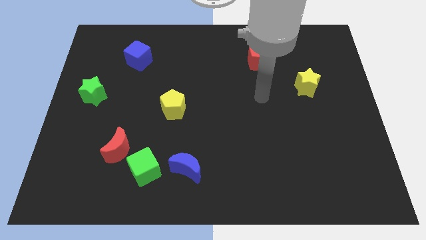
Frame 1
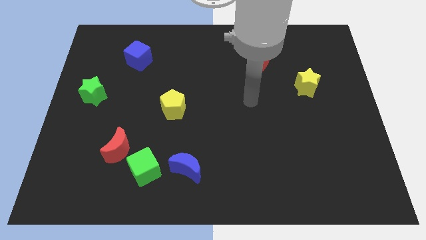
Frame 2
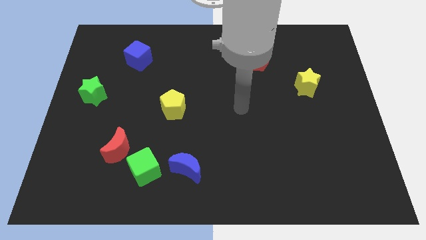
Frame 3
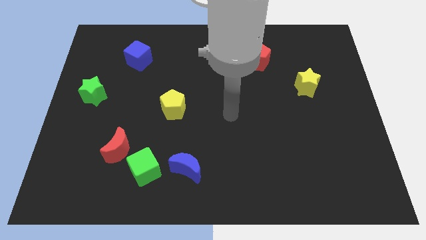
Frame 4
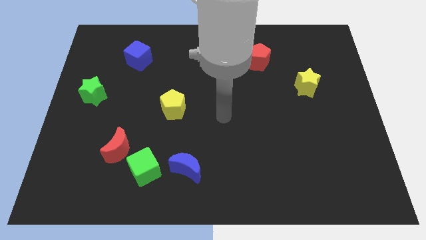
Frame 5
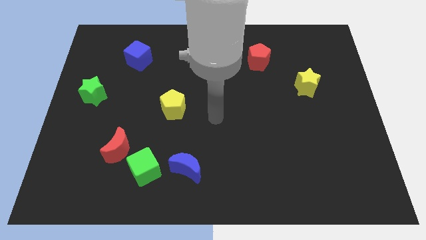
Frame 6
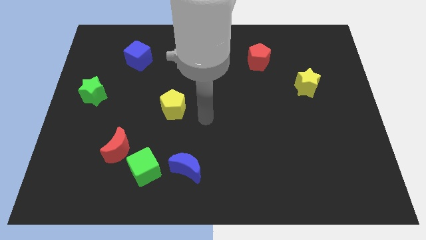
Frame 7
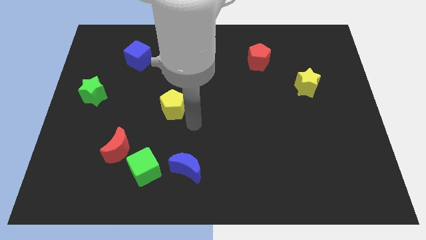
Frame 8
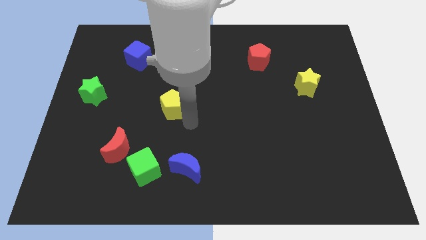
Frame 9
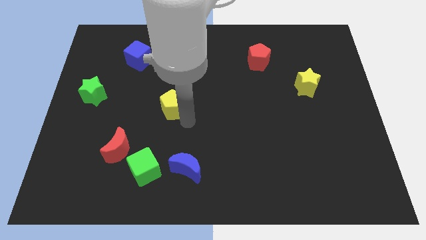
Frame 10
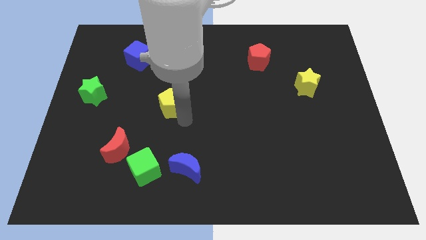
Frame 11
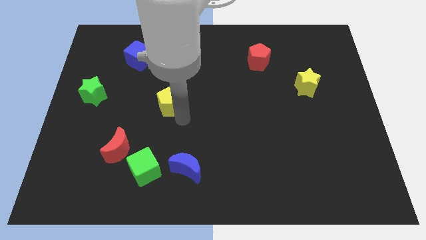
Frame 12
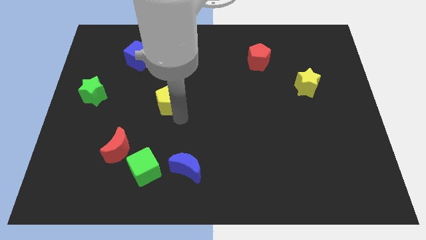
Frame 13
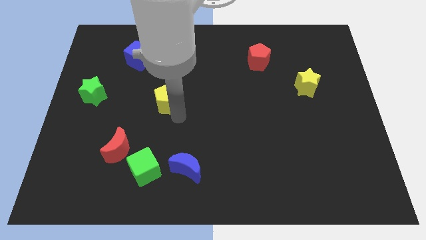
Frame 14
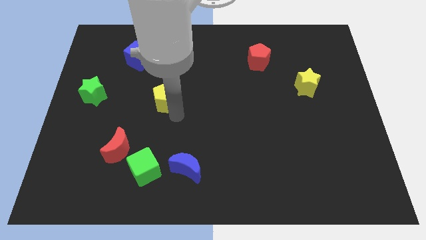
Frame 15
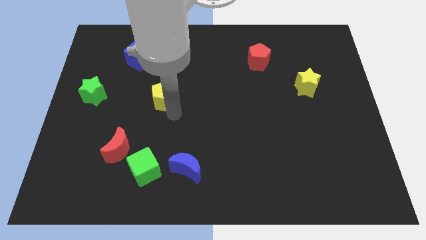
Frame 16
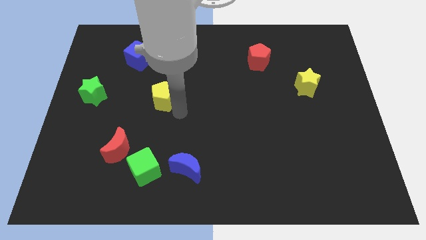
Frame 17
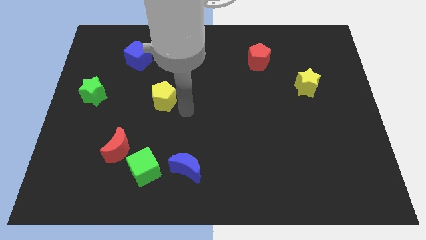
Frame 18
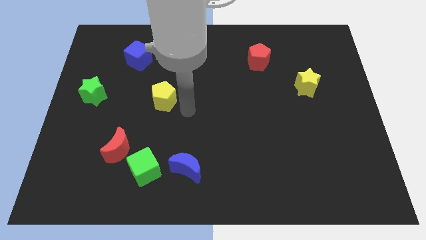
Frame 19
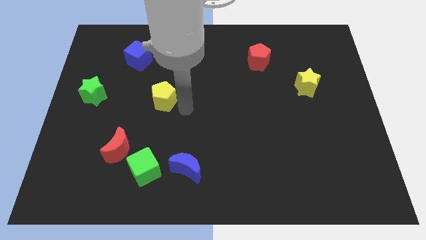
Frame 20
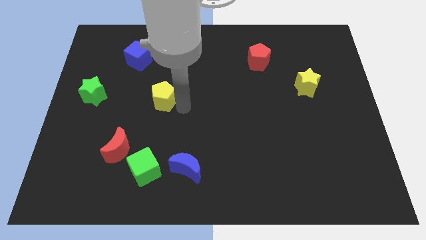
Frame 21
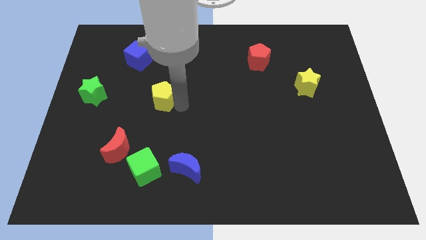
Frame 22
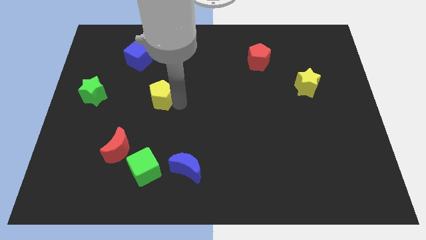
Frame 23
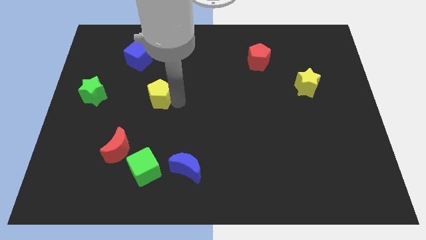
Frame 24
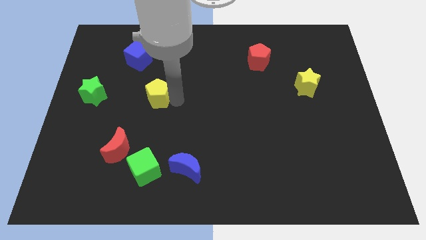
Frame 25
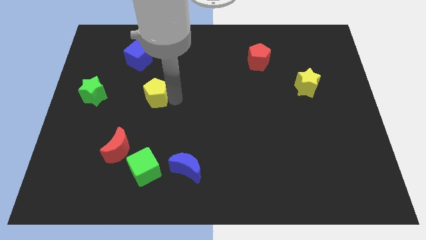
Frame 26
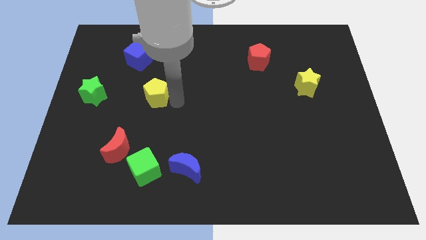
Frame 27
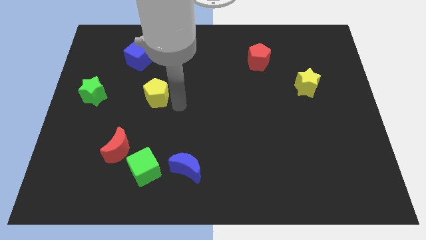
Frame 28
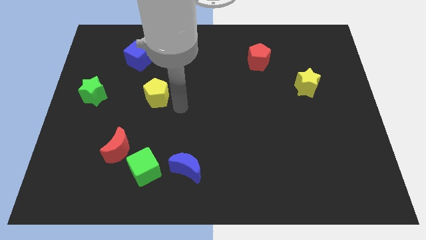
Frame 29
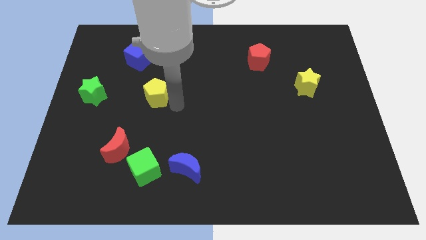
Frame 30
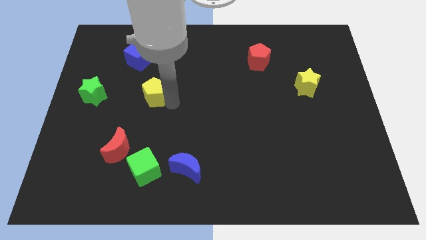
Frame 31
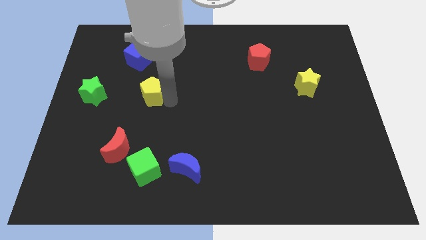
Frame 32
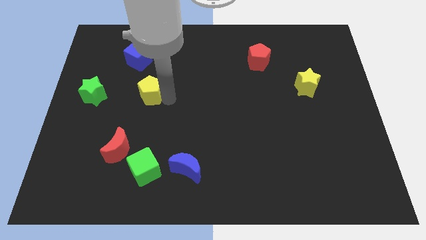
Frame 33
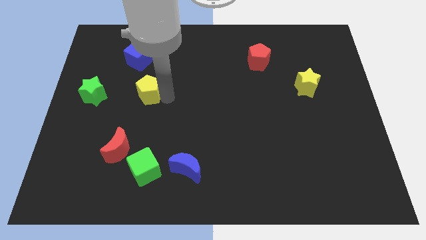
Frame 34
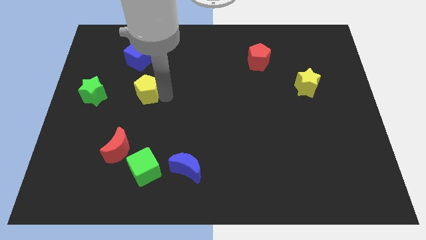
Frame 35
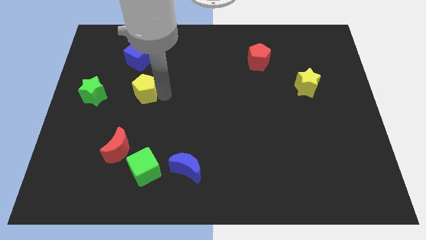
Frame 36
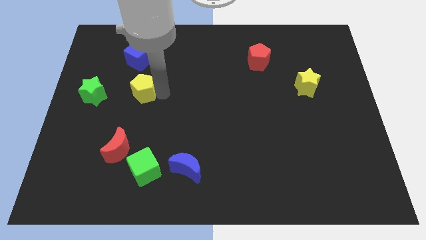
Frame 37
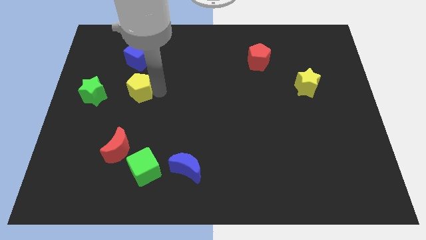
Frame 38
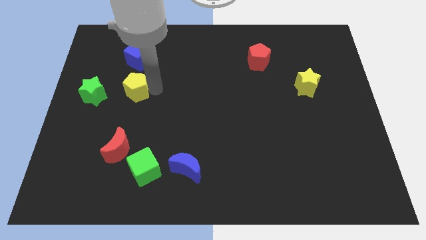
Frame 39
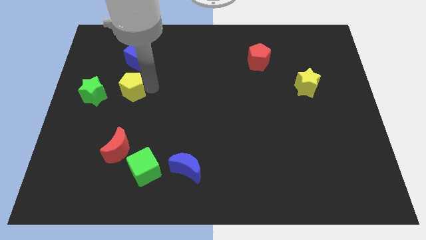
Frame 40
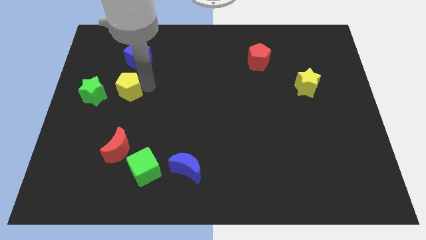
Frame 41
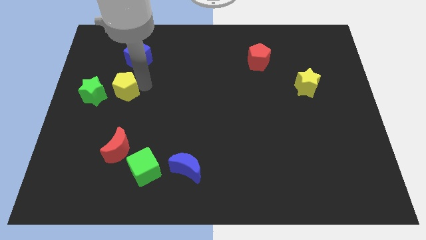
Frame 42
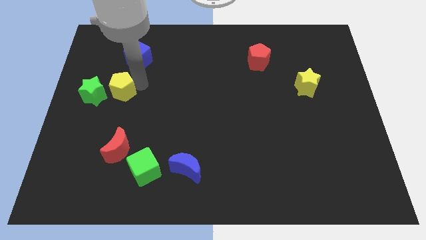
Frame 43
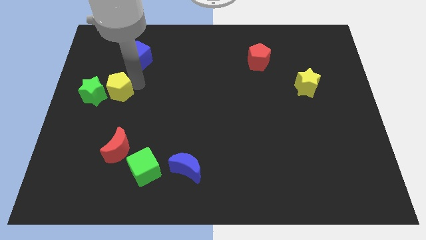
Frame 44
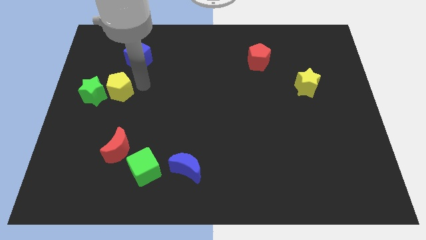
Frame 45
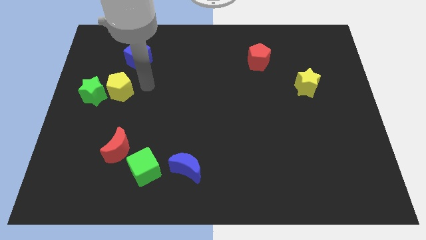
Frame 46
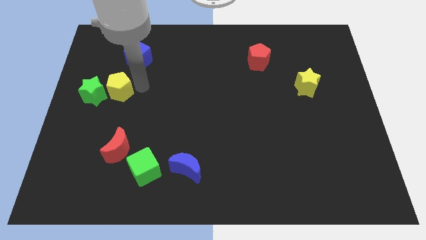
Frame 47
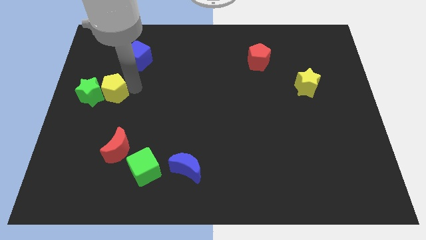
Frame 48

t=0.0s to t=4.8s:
push the yellow pentagon towards the green star

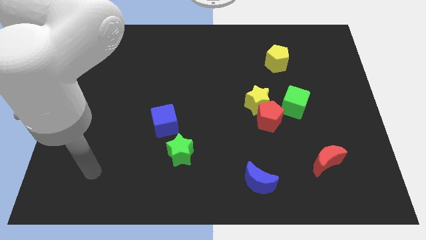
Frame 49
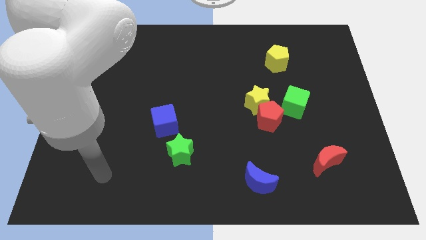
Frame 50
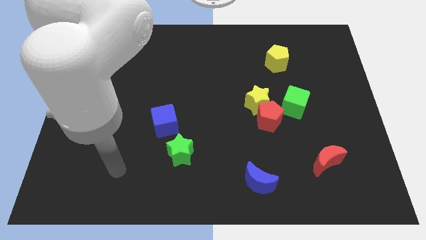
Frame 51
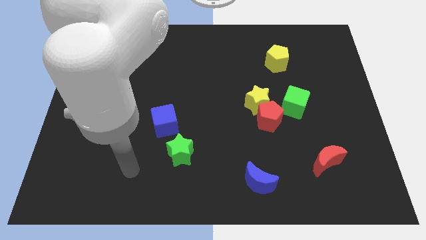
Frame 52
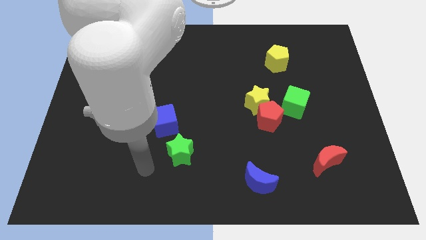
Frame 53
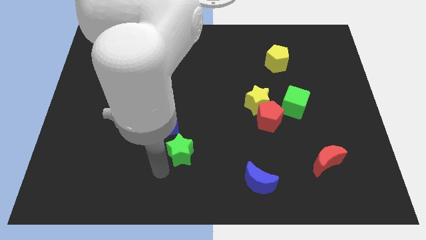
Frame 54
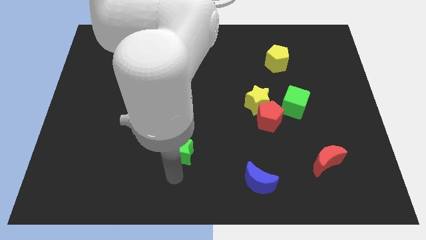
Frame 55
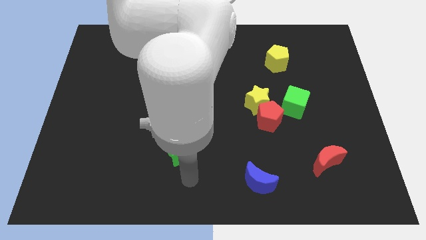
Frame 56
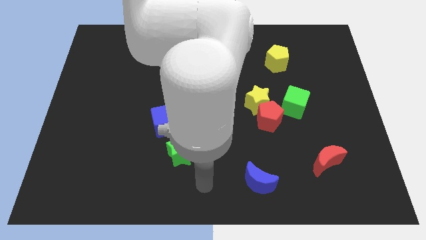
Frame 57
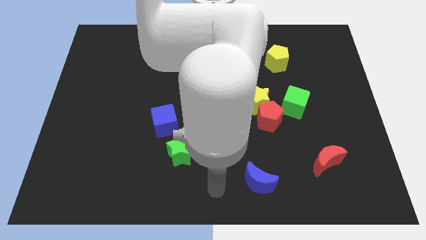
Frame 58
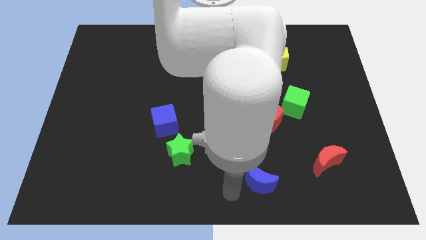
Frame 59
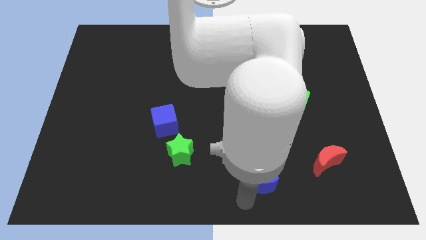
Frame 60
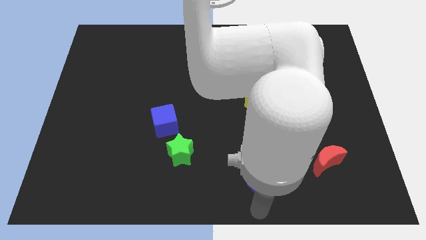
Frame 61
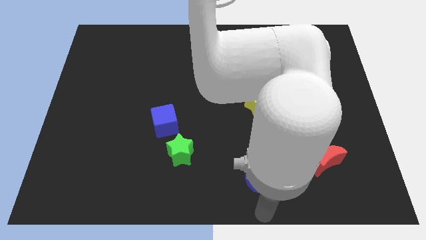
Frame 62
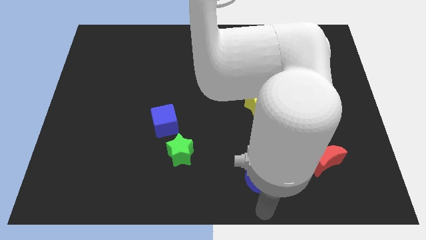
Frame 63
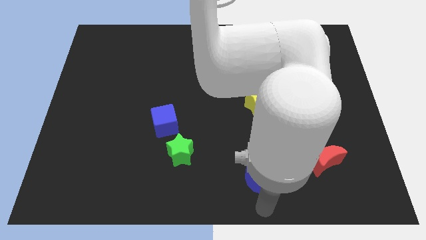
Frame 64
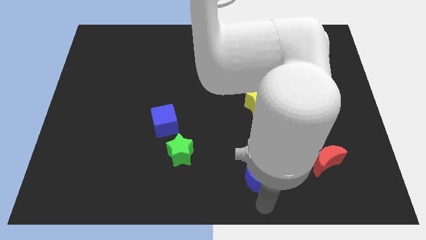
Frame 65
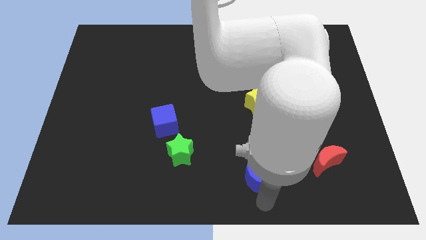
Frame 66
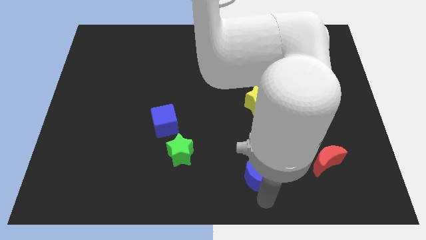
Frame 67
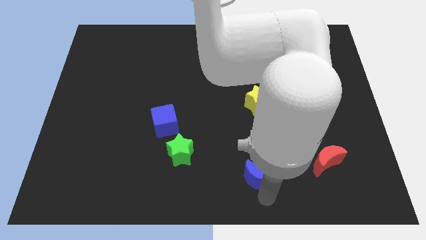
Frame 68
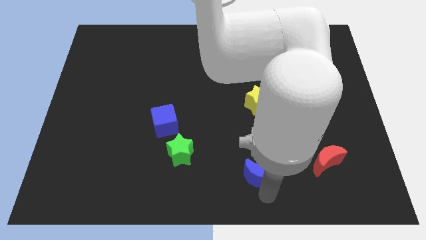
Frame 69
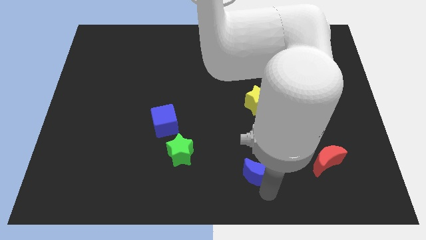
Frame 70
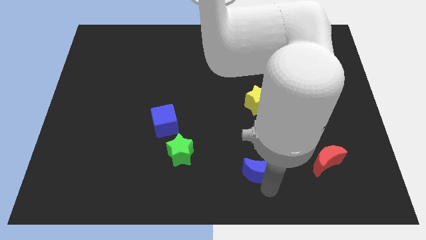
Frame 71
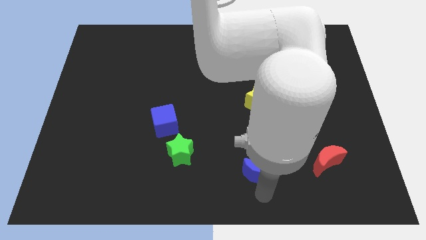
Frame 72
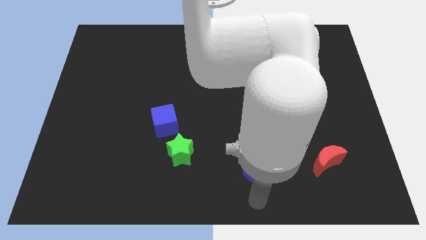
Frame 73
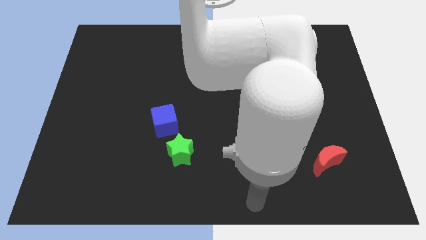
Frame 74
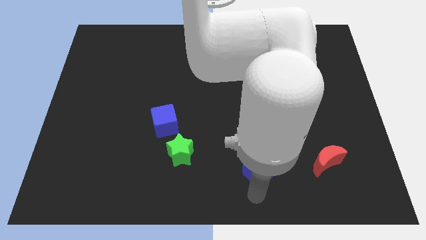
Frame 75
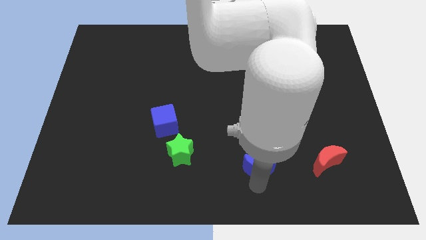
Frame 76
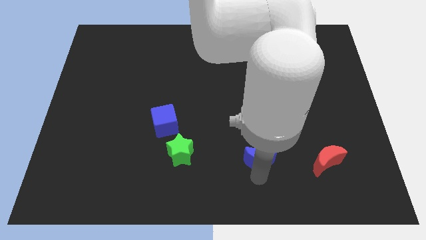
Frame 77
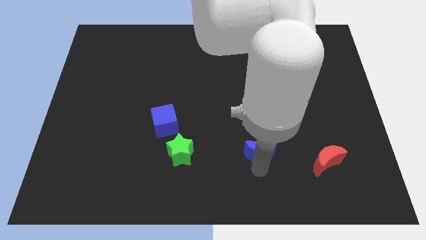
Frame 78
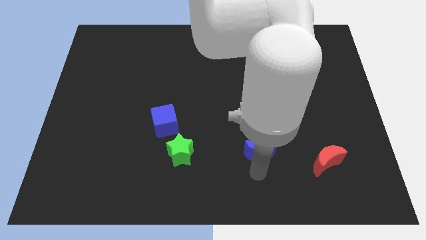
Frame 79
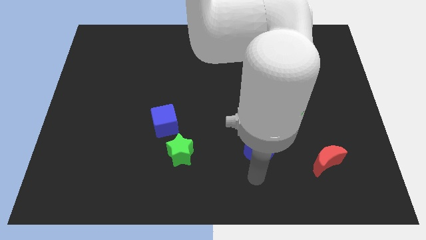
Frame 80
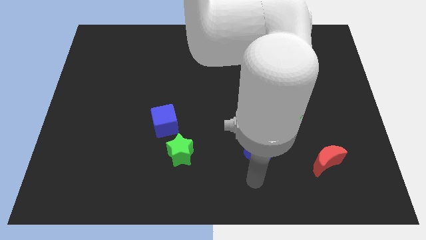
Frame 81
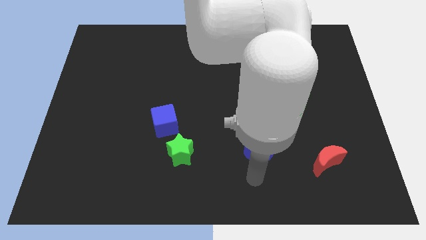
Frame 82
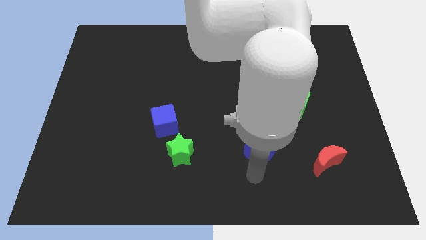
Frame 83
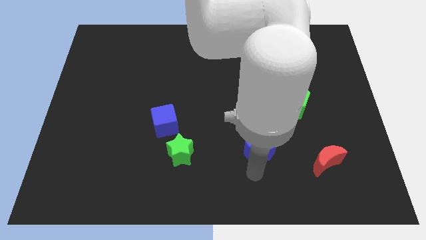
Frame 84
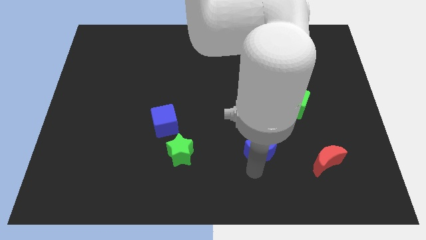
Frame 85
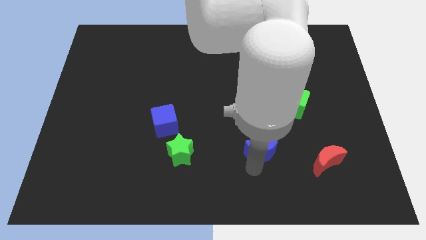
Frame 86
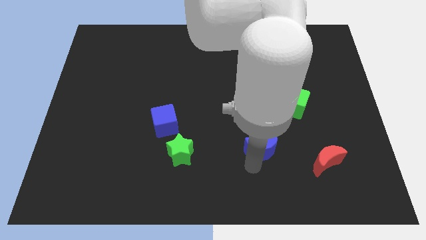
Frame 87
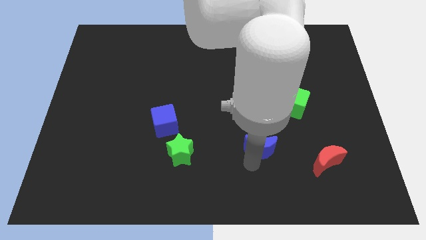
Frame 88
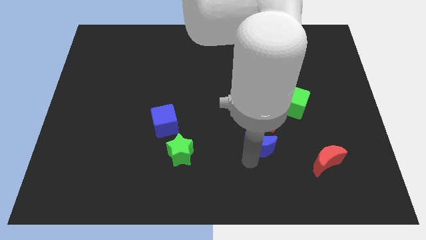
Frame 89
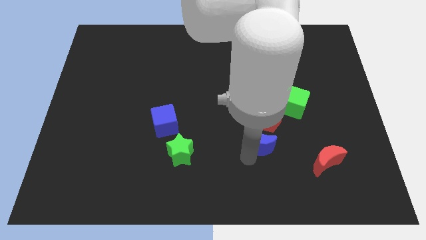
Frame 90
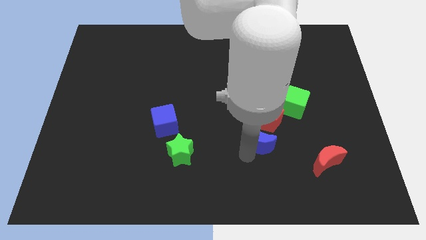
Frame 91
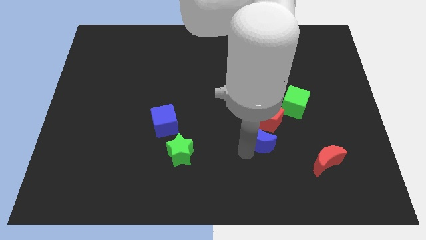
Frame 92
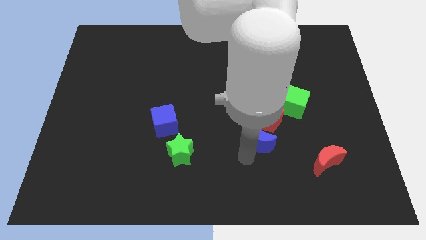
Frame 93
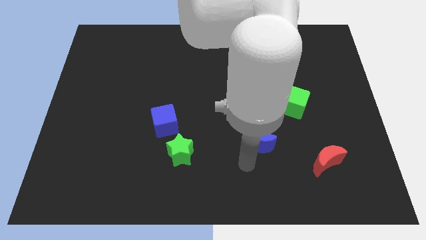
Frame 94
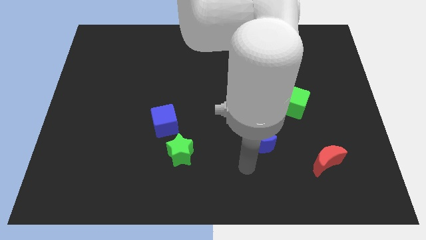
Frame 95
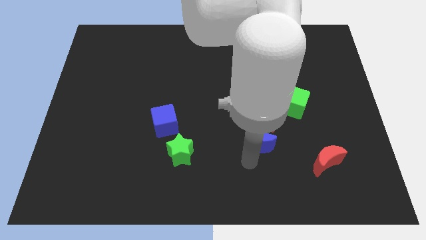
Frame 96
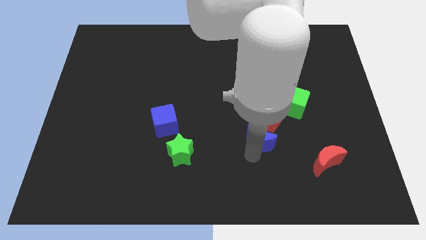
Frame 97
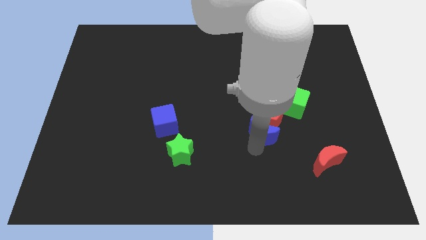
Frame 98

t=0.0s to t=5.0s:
slide the blue moon towards the red pentagon
